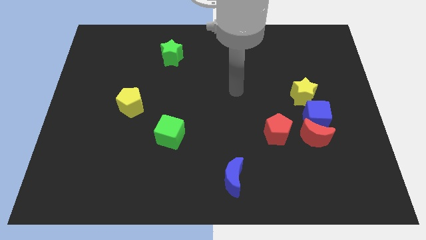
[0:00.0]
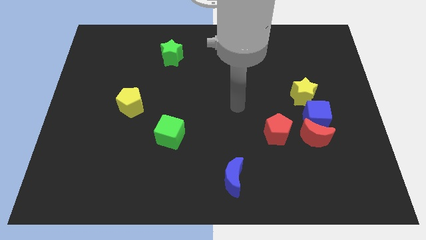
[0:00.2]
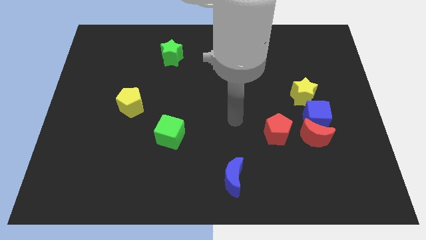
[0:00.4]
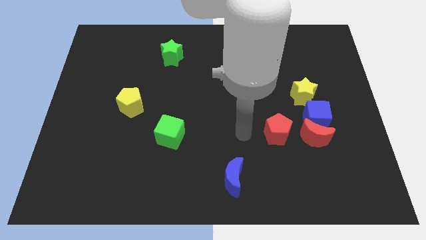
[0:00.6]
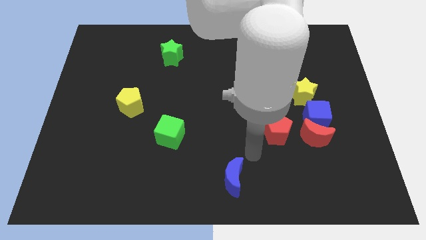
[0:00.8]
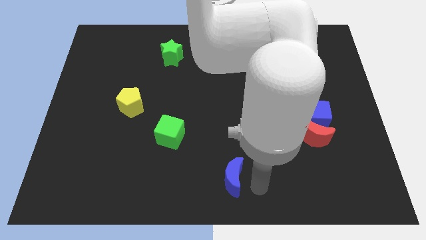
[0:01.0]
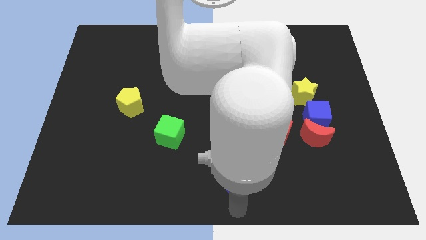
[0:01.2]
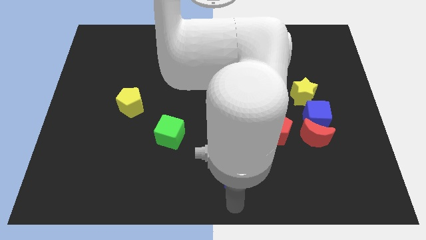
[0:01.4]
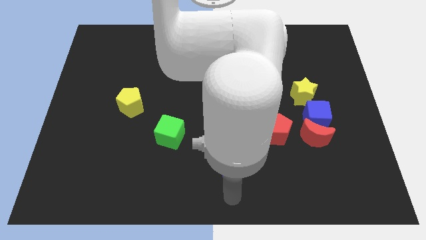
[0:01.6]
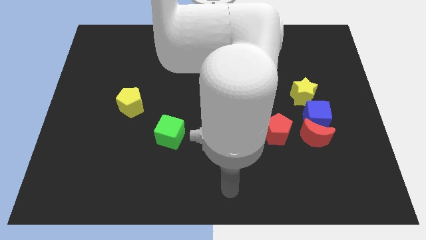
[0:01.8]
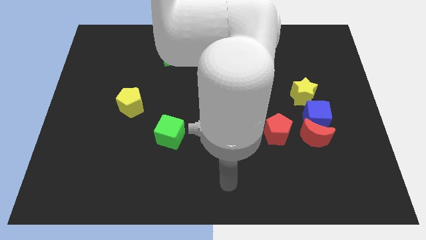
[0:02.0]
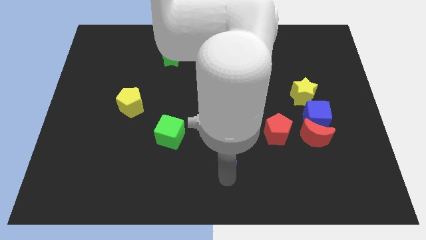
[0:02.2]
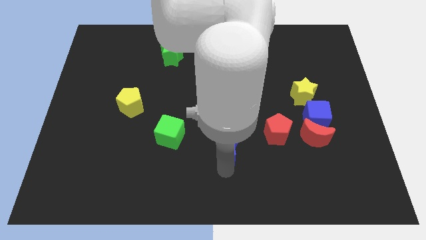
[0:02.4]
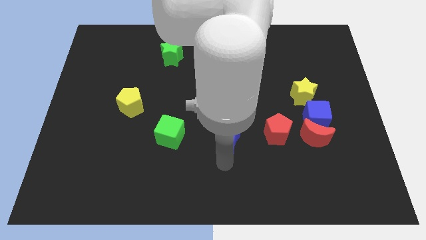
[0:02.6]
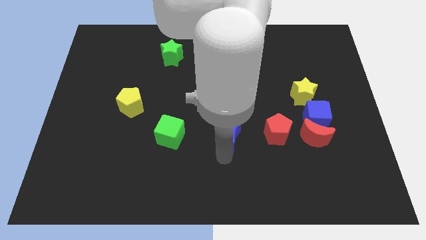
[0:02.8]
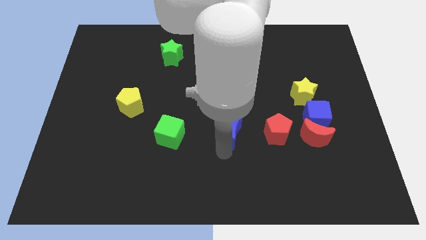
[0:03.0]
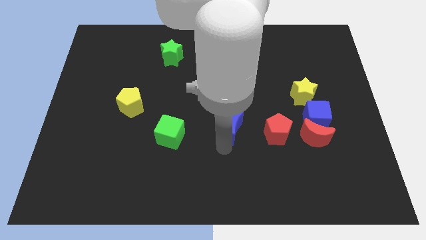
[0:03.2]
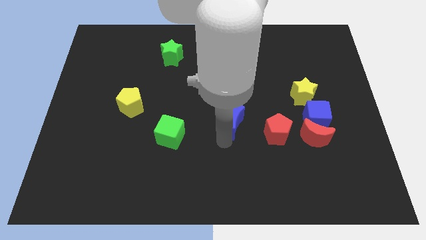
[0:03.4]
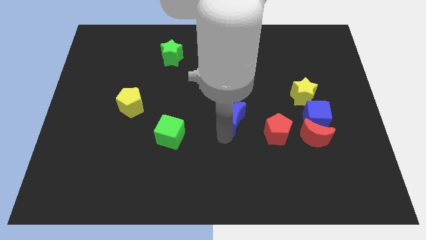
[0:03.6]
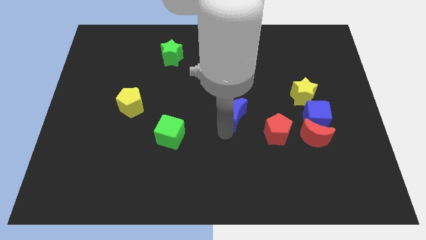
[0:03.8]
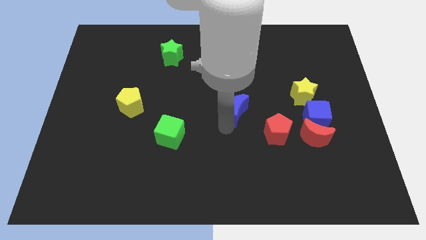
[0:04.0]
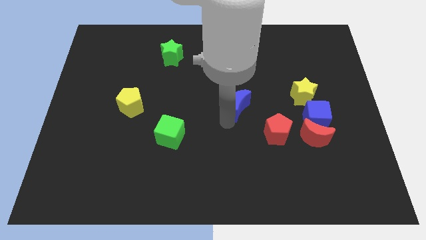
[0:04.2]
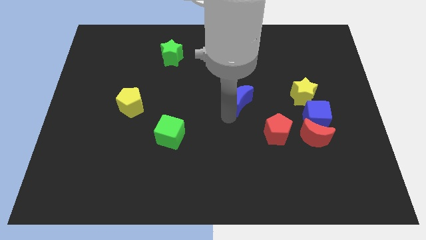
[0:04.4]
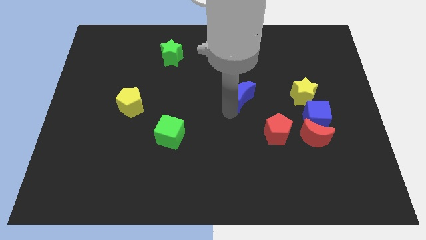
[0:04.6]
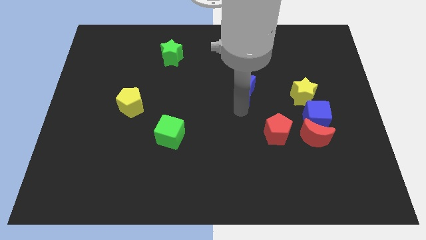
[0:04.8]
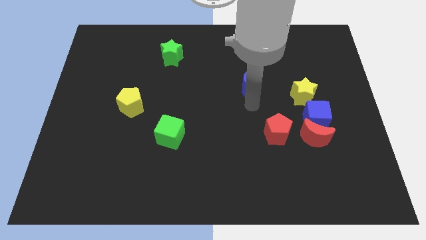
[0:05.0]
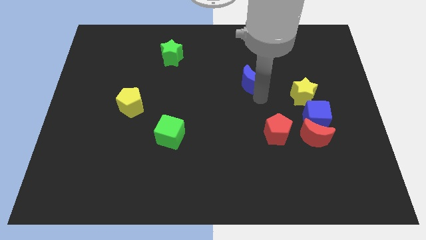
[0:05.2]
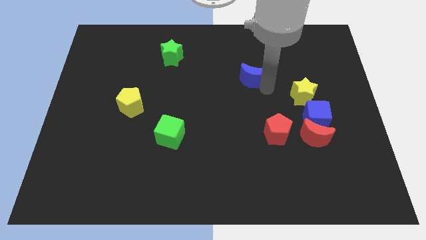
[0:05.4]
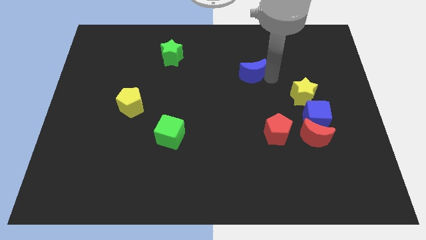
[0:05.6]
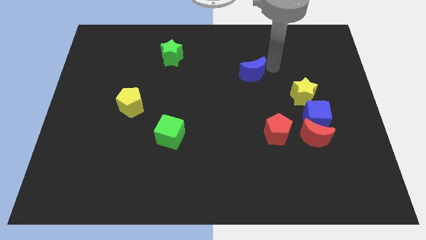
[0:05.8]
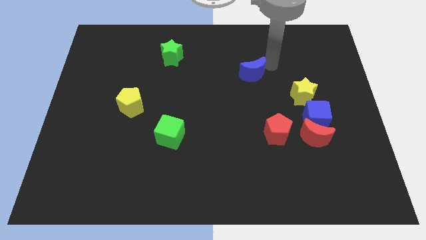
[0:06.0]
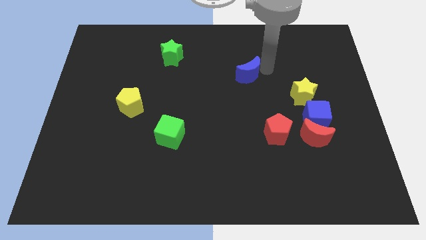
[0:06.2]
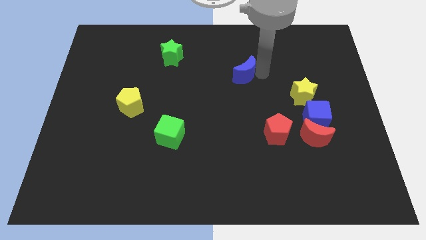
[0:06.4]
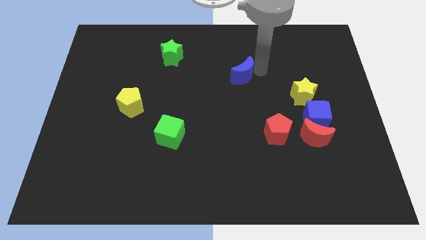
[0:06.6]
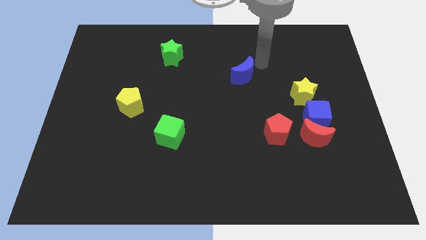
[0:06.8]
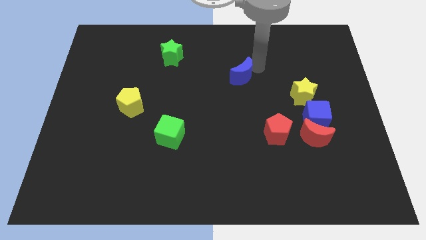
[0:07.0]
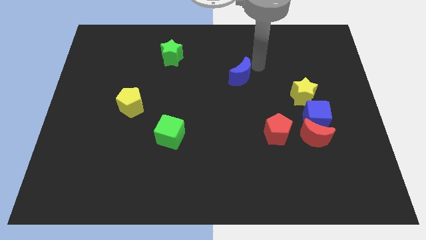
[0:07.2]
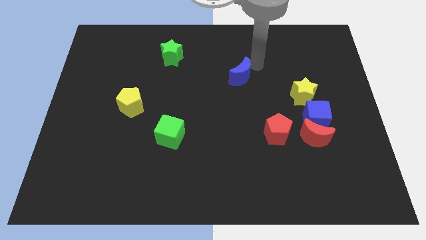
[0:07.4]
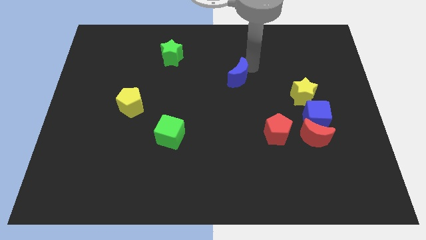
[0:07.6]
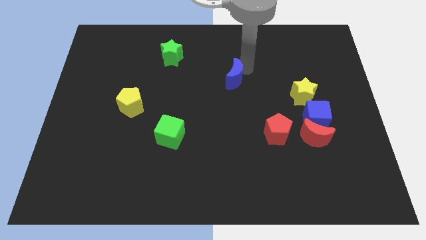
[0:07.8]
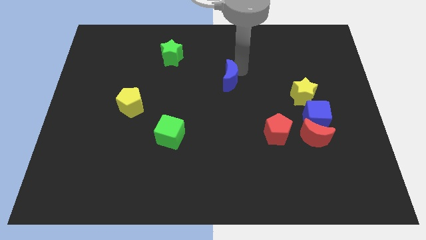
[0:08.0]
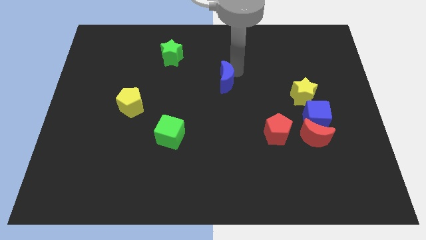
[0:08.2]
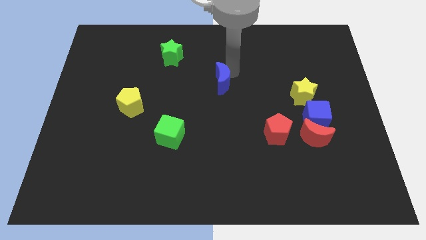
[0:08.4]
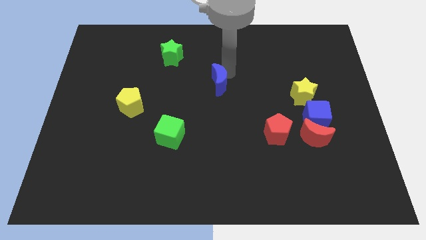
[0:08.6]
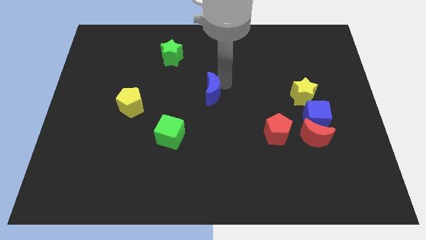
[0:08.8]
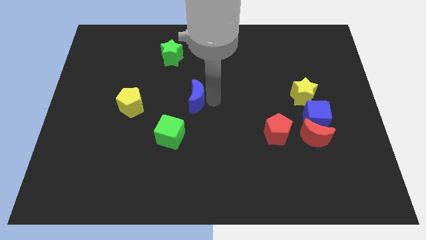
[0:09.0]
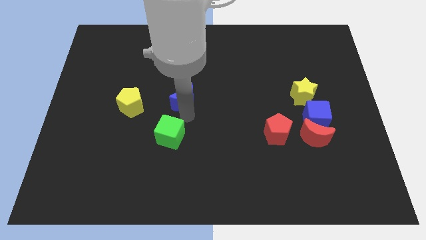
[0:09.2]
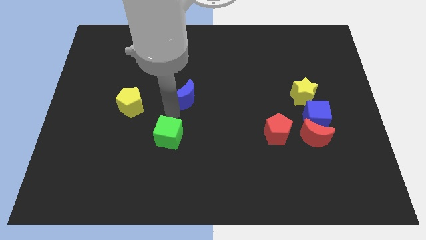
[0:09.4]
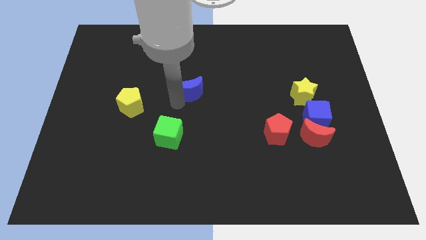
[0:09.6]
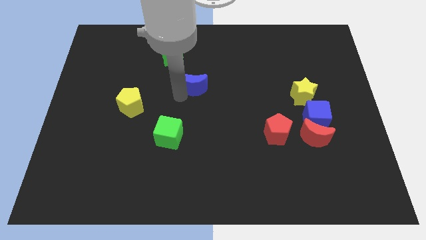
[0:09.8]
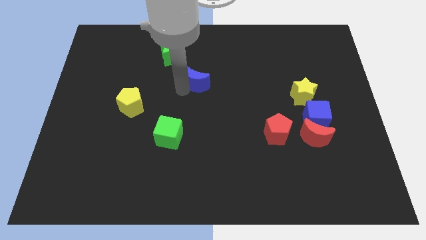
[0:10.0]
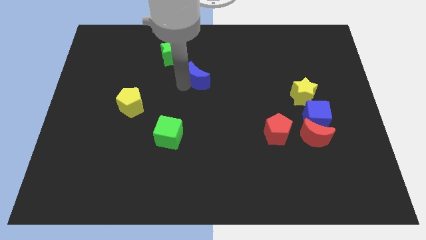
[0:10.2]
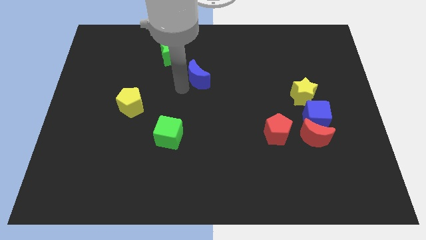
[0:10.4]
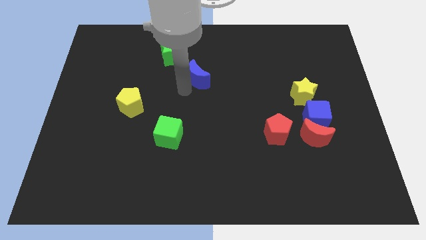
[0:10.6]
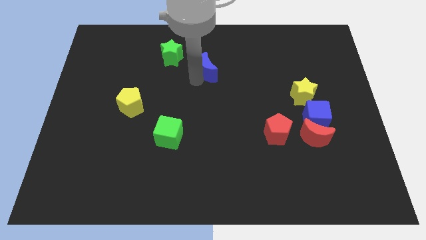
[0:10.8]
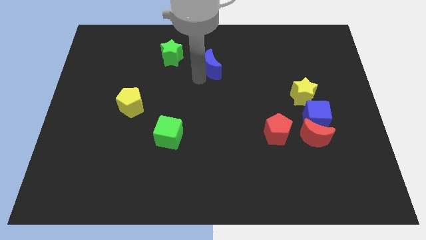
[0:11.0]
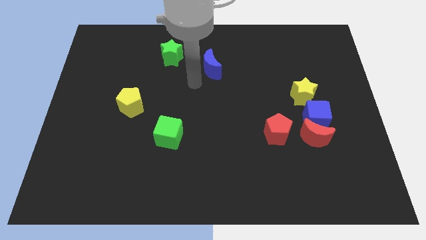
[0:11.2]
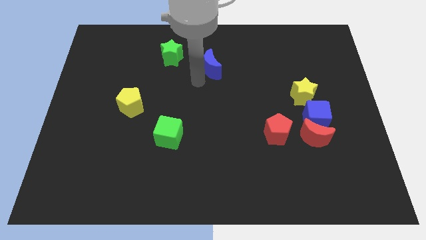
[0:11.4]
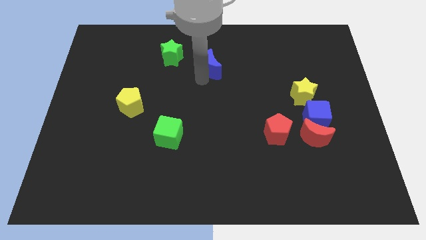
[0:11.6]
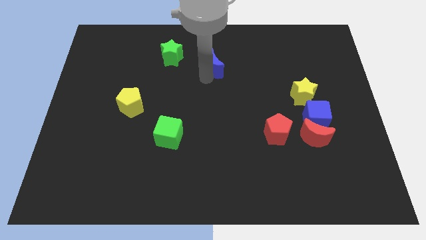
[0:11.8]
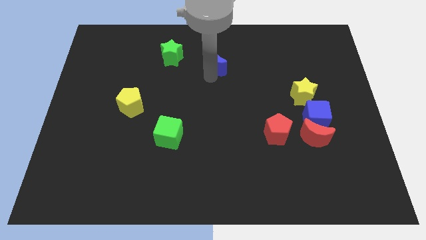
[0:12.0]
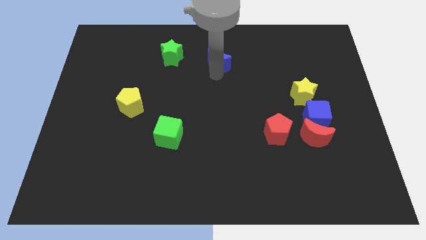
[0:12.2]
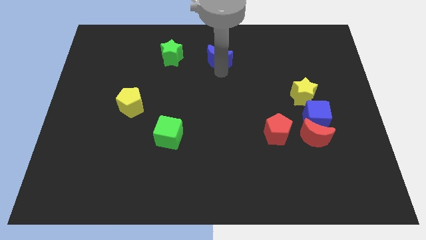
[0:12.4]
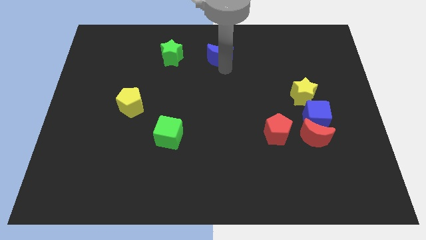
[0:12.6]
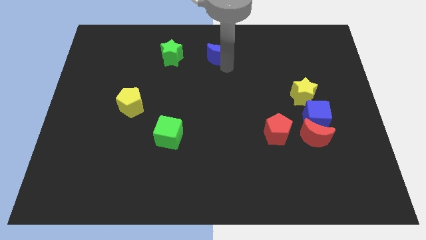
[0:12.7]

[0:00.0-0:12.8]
slide the blue moon to the towards your base
